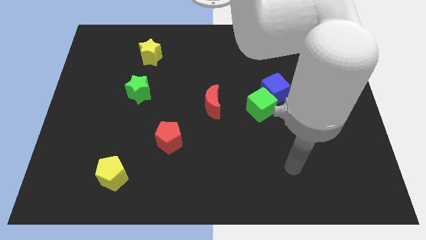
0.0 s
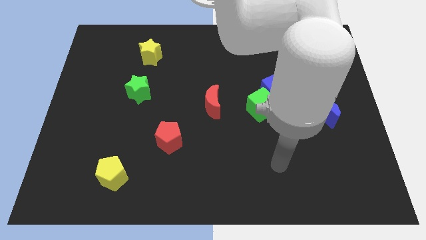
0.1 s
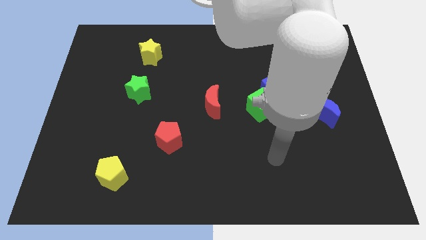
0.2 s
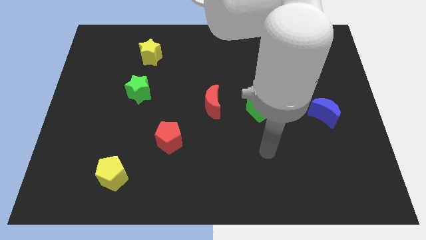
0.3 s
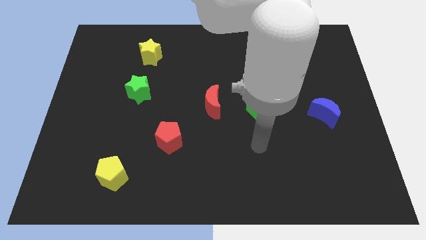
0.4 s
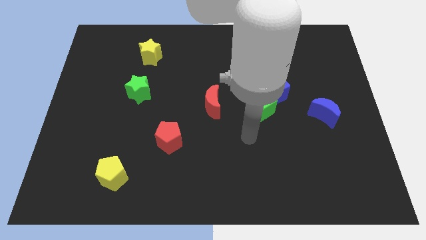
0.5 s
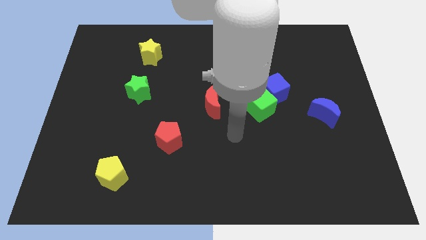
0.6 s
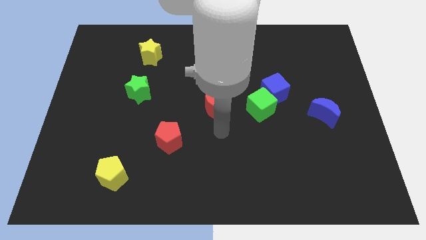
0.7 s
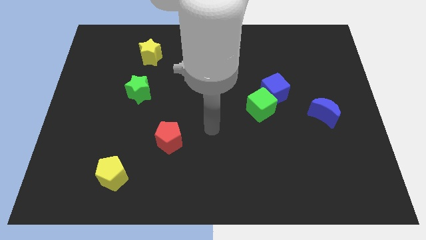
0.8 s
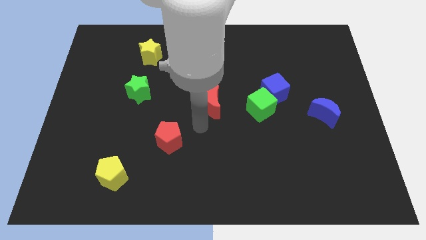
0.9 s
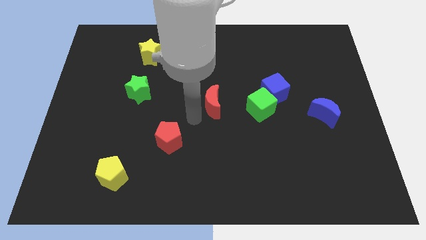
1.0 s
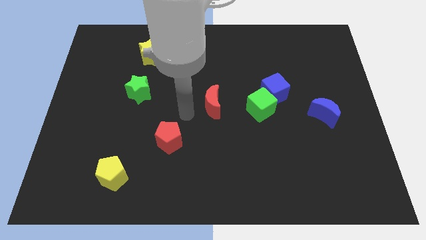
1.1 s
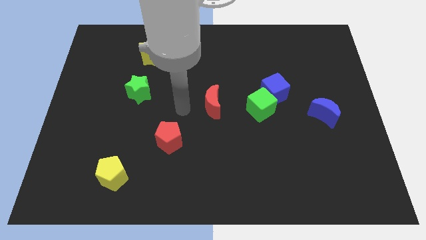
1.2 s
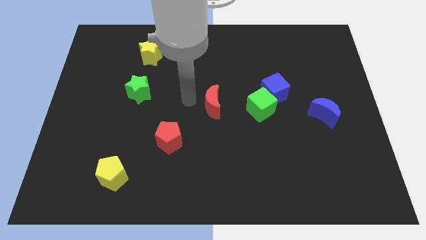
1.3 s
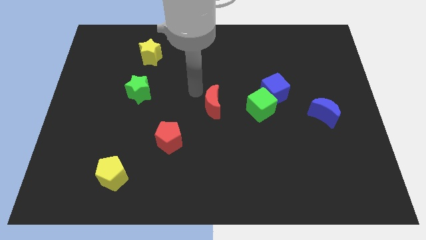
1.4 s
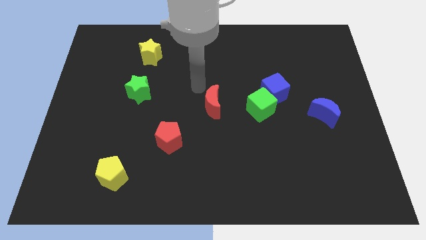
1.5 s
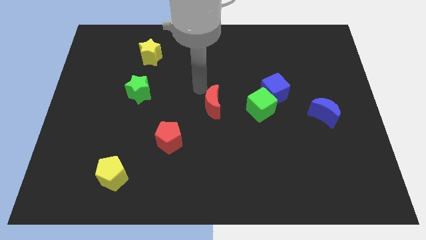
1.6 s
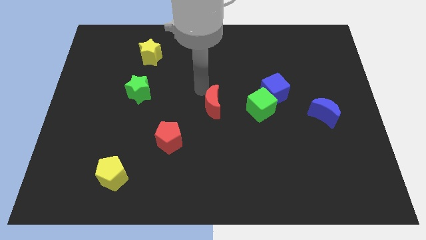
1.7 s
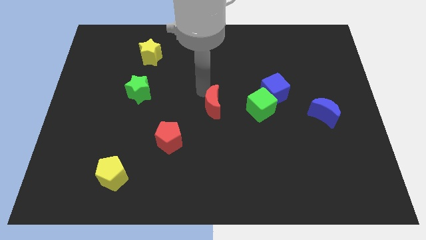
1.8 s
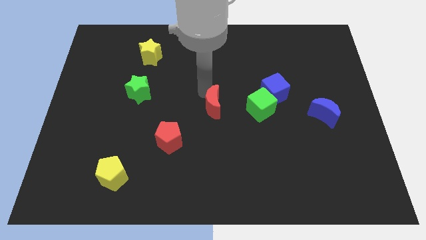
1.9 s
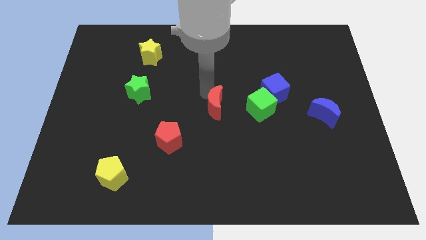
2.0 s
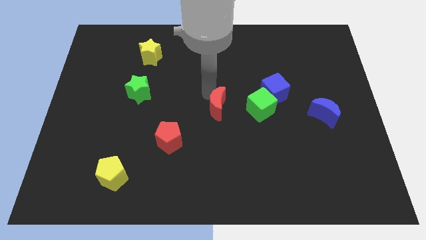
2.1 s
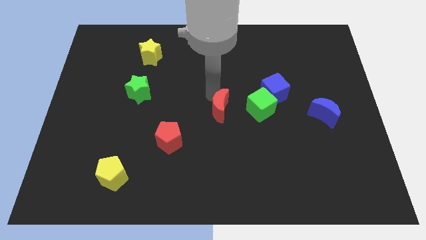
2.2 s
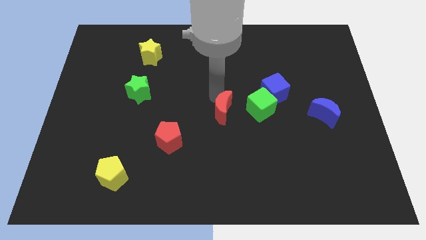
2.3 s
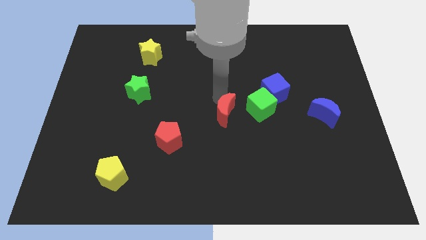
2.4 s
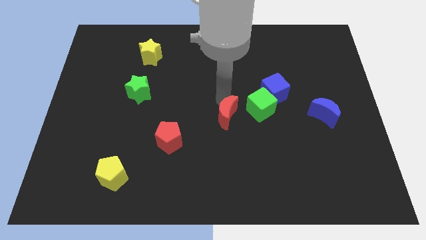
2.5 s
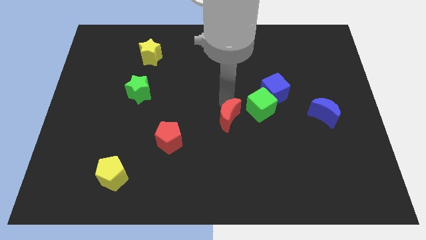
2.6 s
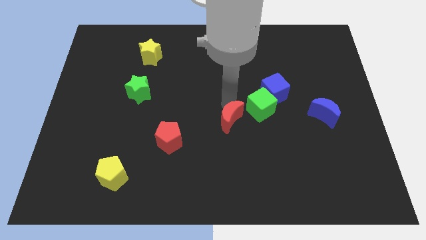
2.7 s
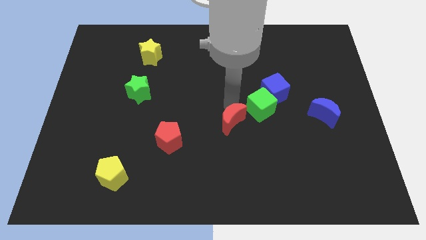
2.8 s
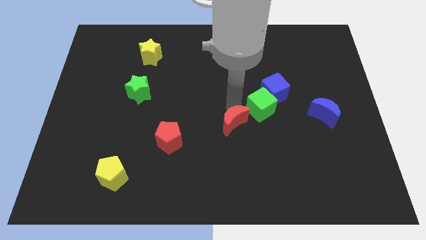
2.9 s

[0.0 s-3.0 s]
slightly move the red moon down and then right

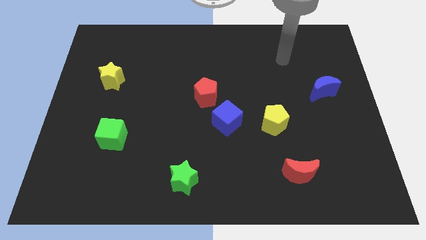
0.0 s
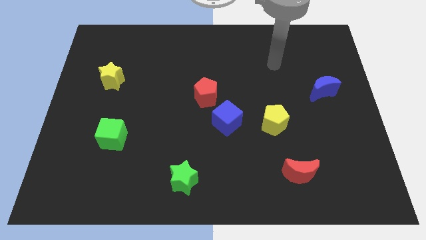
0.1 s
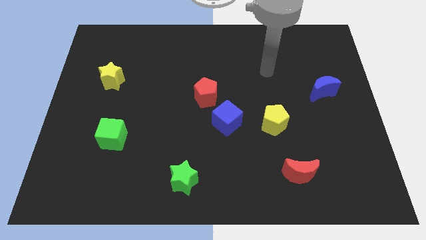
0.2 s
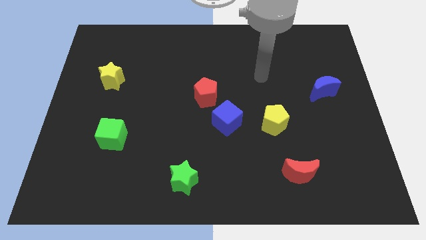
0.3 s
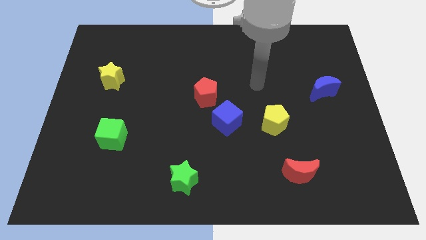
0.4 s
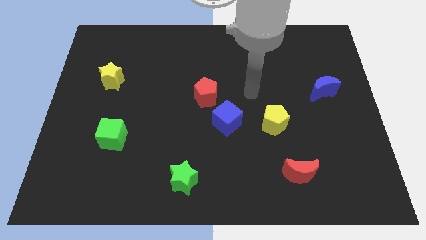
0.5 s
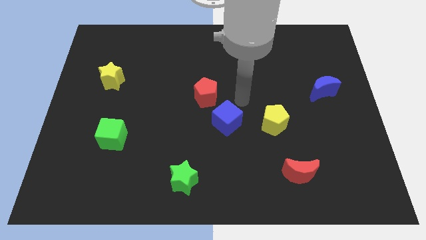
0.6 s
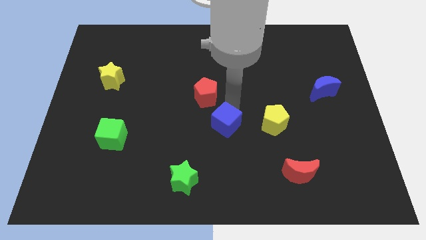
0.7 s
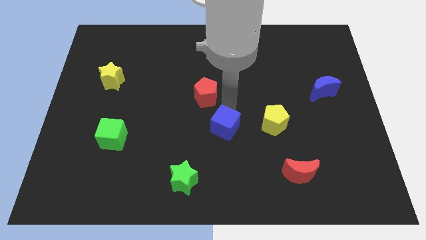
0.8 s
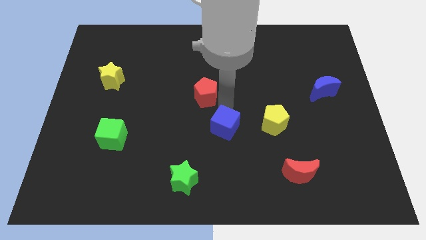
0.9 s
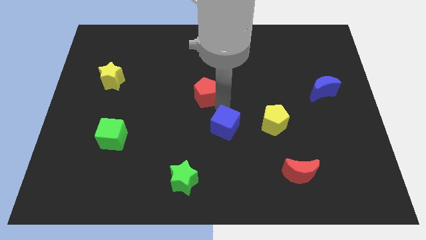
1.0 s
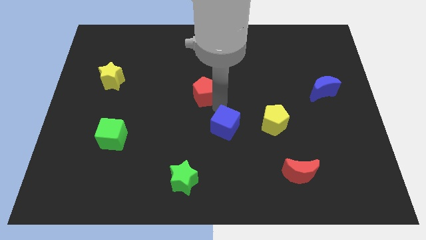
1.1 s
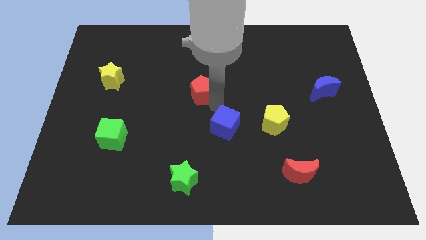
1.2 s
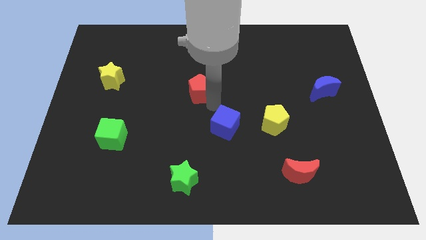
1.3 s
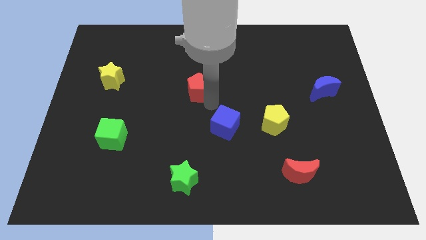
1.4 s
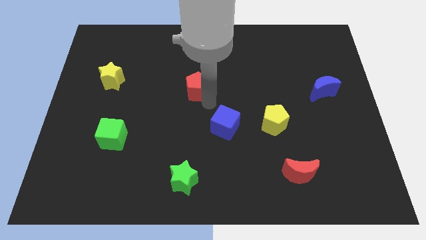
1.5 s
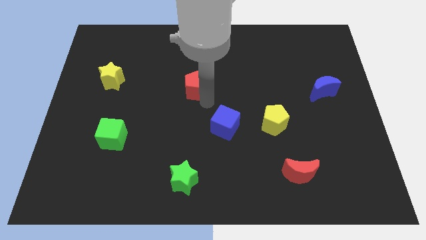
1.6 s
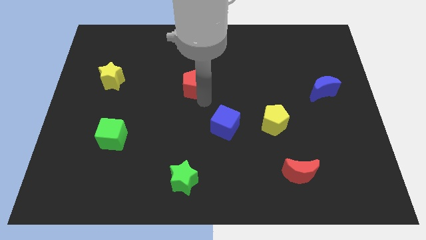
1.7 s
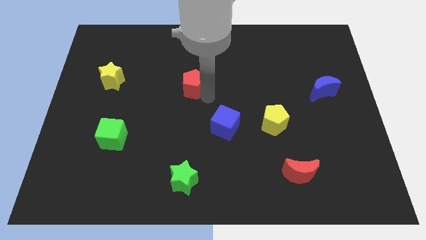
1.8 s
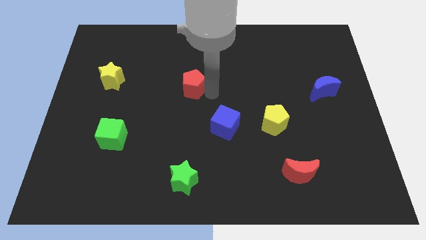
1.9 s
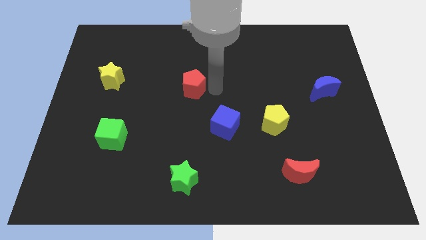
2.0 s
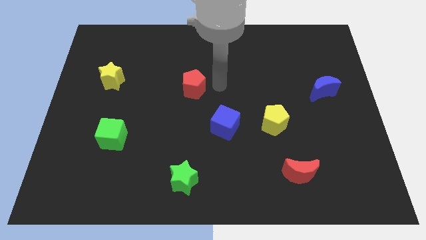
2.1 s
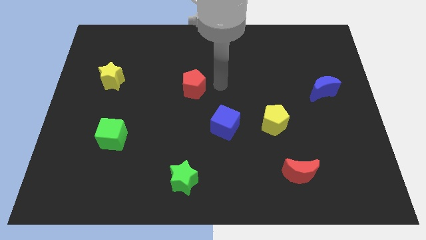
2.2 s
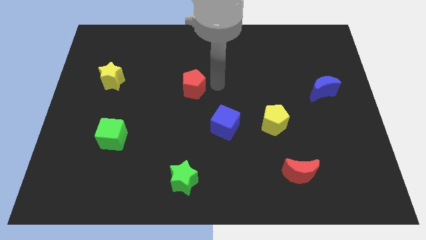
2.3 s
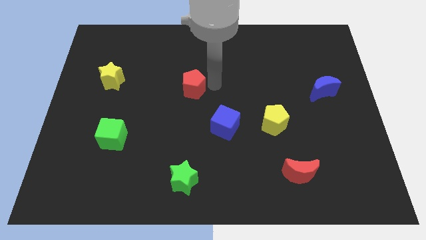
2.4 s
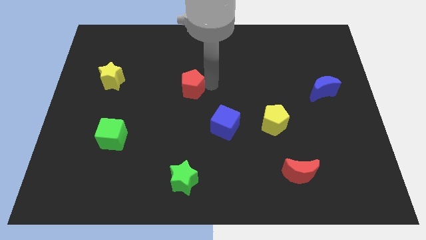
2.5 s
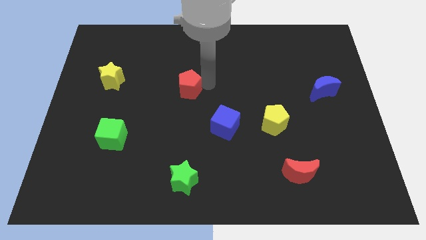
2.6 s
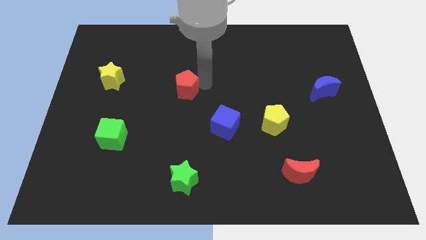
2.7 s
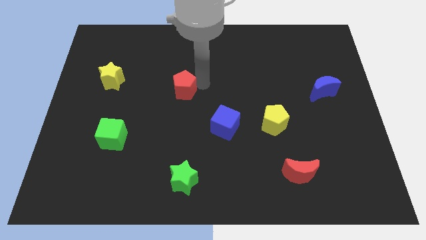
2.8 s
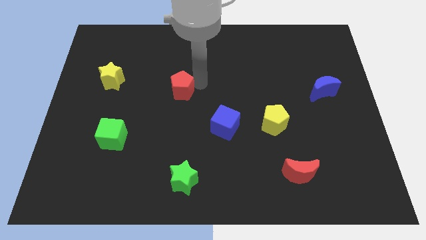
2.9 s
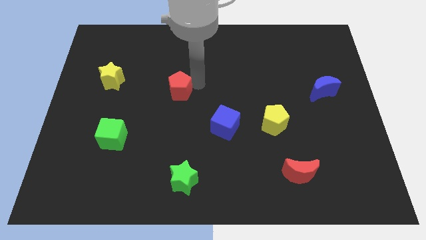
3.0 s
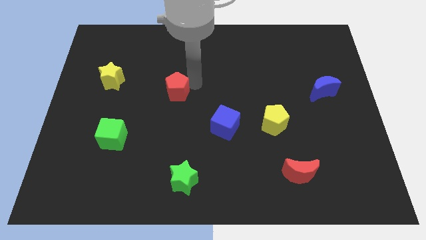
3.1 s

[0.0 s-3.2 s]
push the red pentagon a little bit left

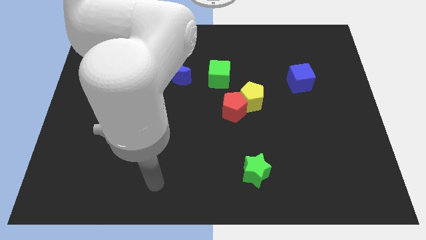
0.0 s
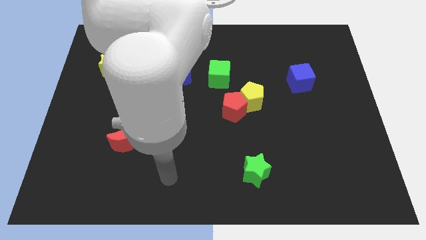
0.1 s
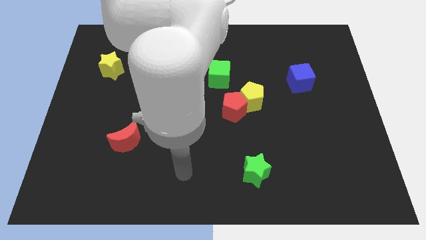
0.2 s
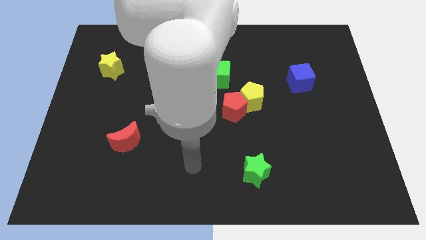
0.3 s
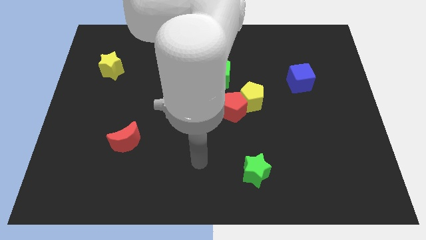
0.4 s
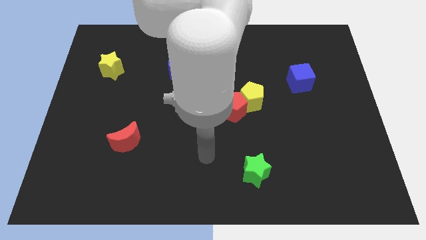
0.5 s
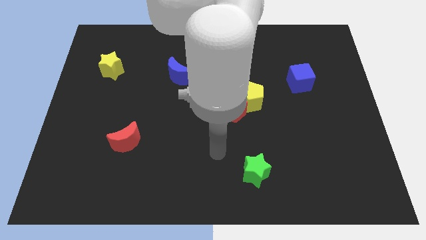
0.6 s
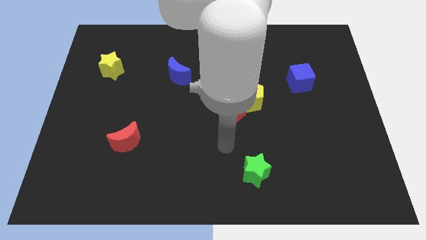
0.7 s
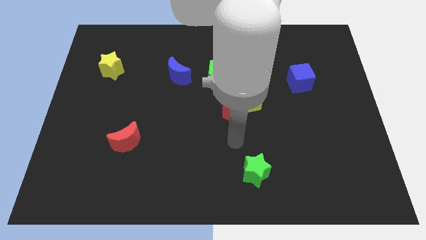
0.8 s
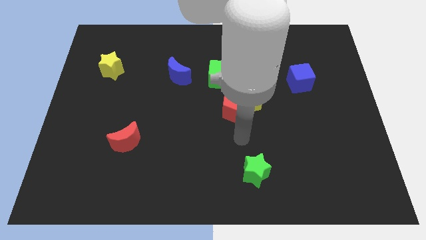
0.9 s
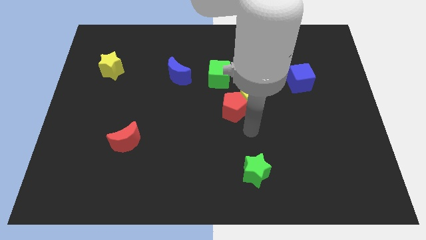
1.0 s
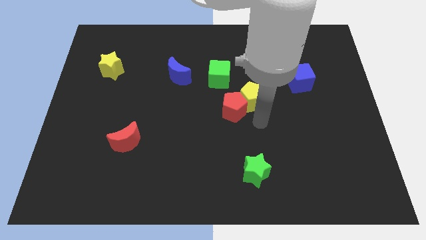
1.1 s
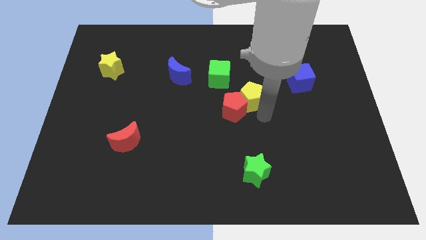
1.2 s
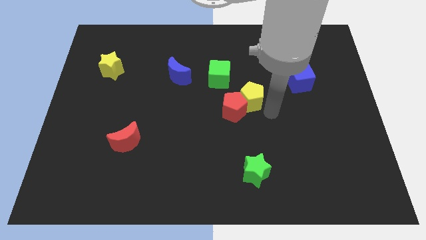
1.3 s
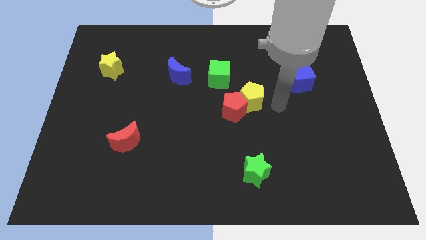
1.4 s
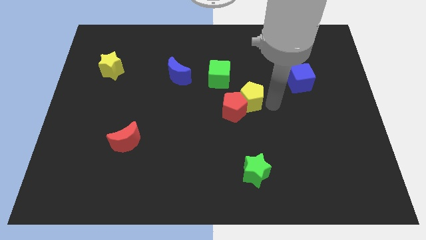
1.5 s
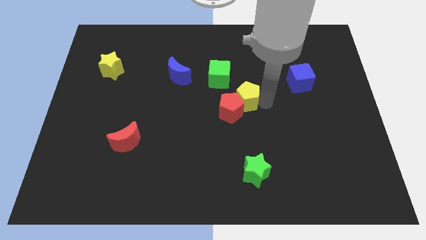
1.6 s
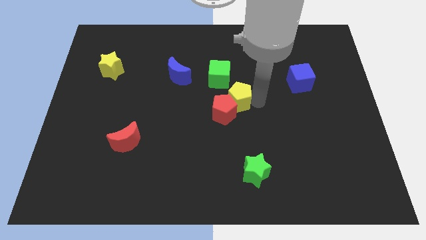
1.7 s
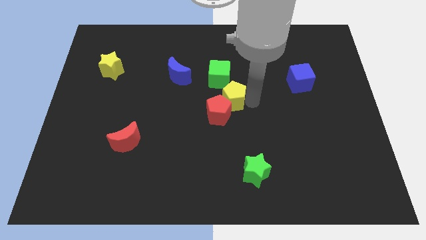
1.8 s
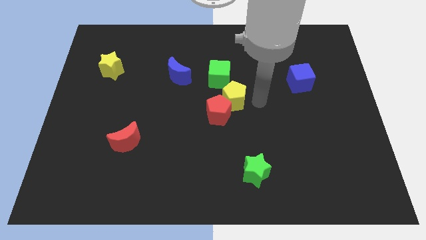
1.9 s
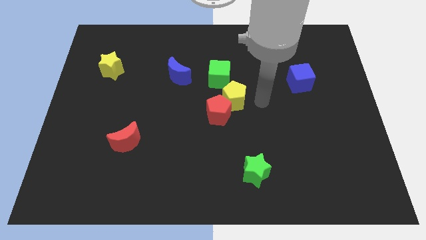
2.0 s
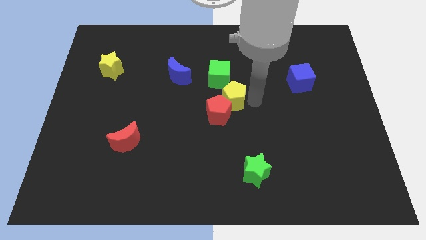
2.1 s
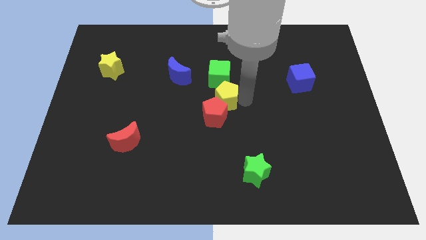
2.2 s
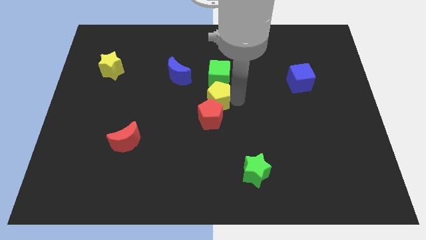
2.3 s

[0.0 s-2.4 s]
move the yellow pentagon left somewhat

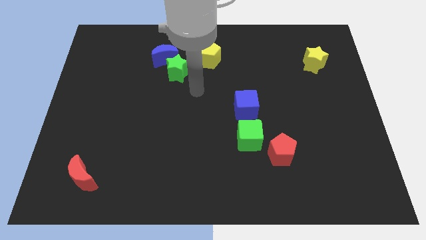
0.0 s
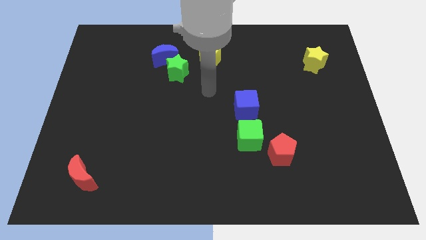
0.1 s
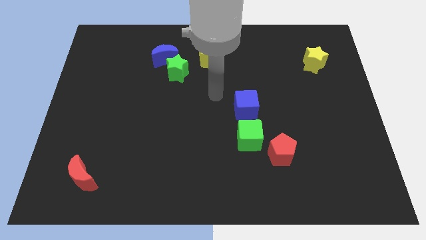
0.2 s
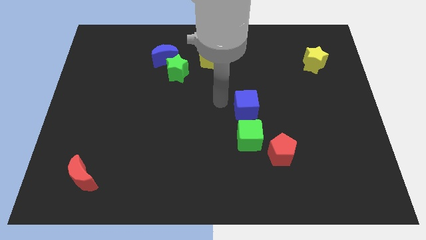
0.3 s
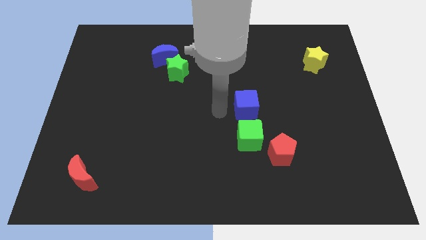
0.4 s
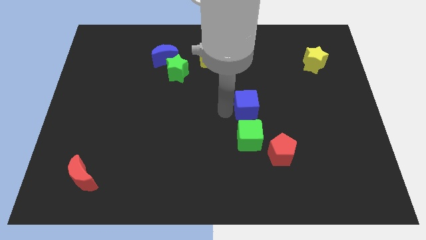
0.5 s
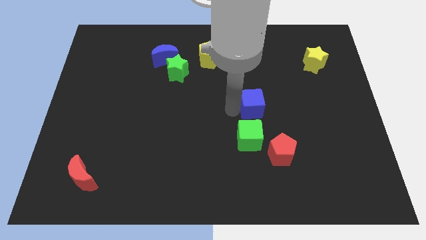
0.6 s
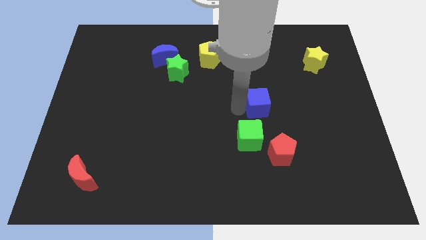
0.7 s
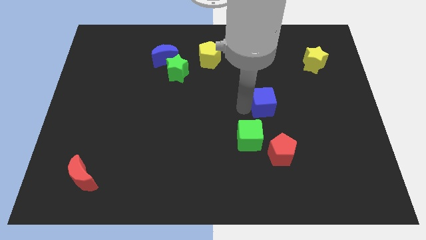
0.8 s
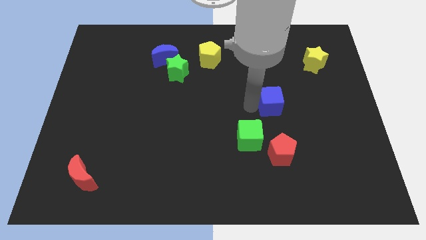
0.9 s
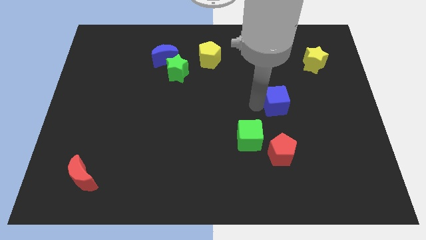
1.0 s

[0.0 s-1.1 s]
slide the blue cube to the right a little bit
